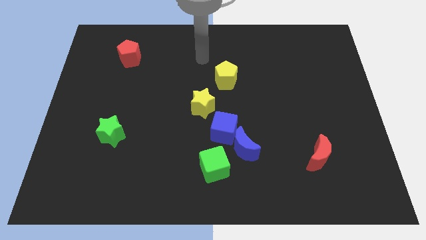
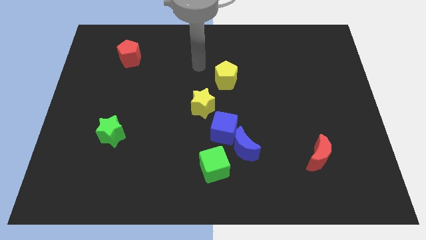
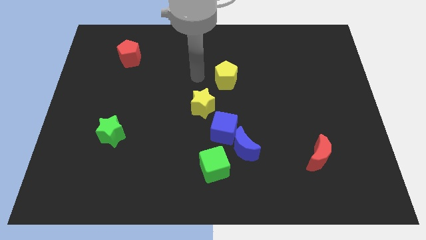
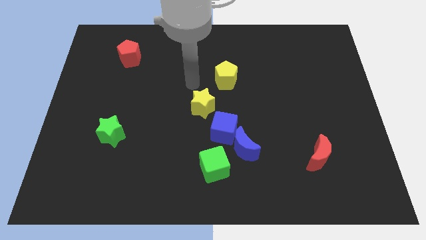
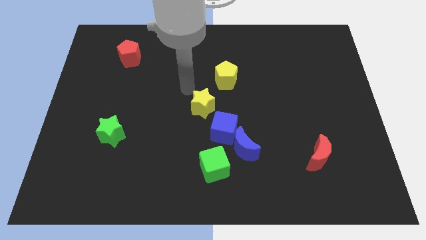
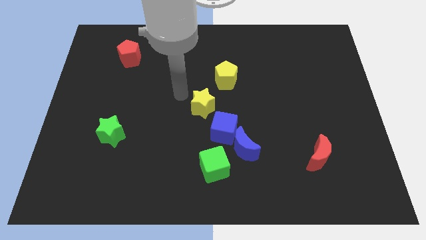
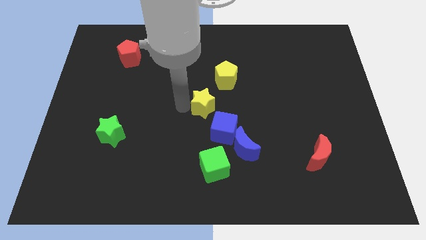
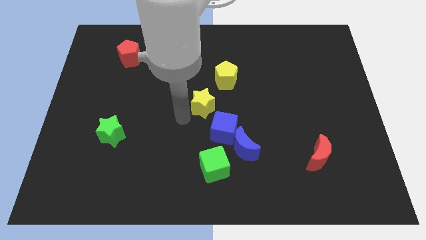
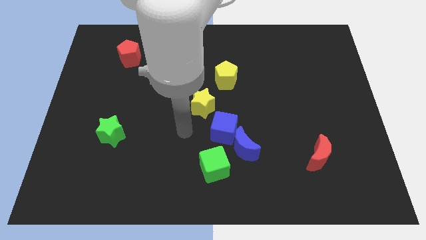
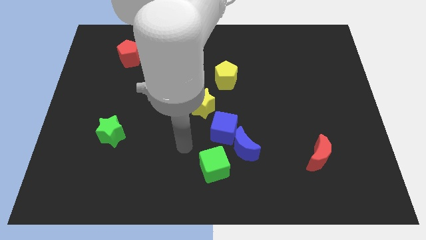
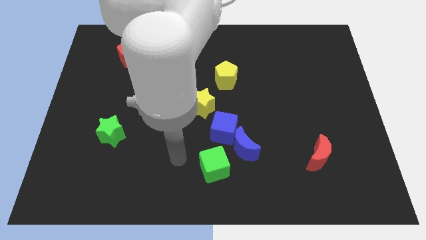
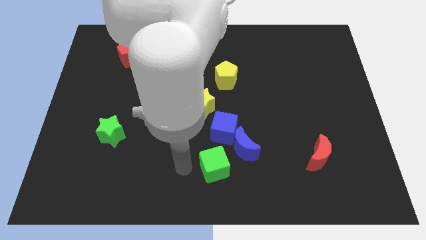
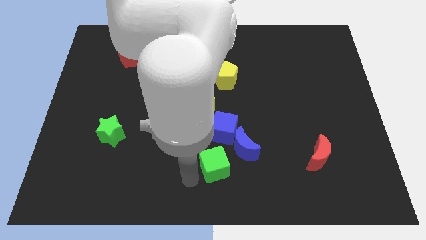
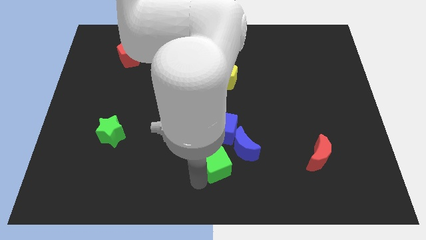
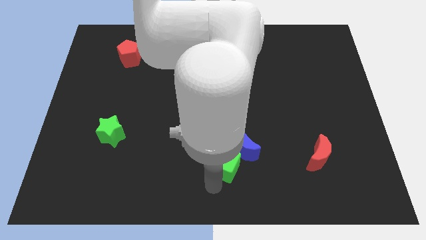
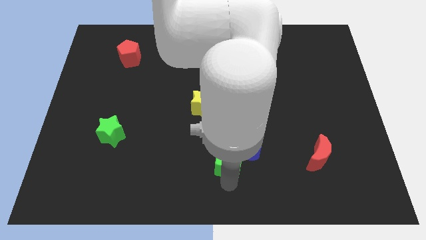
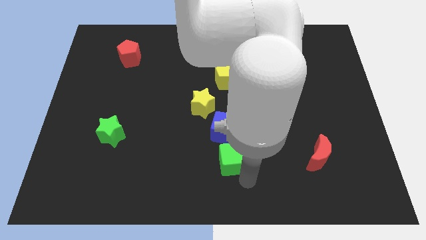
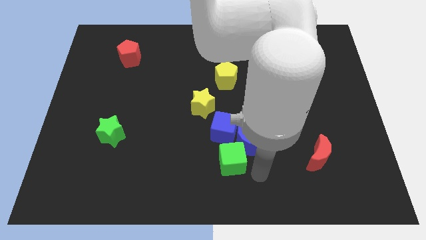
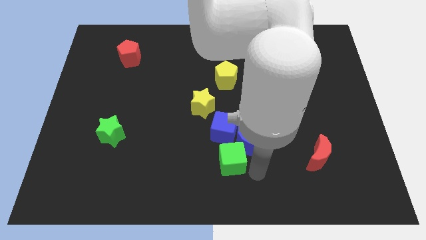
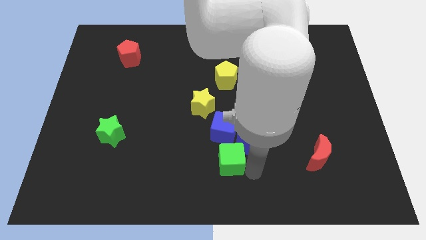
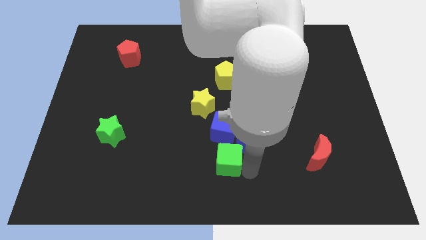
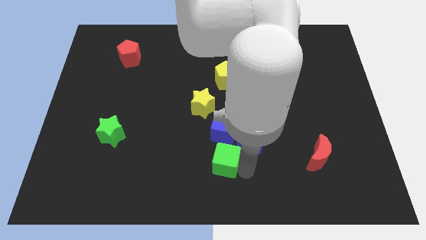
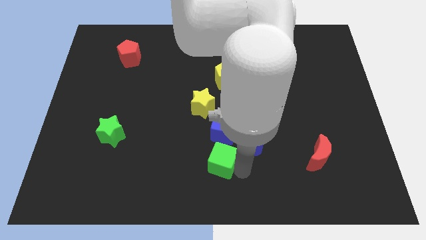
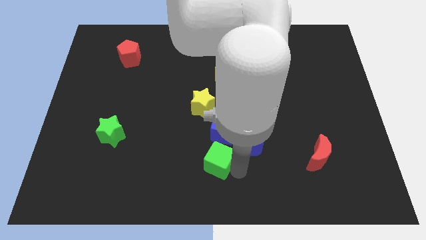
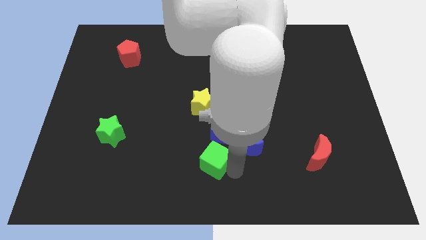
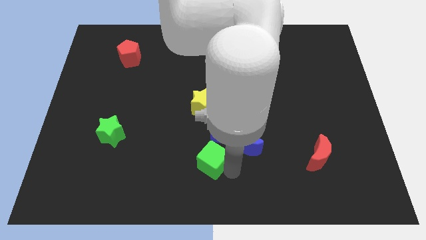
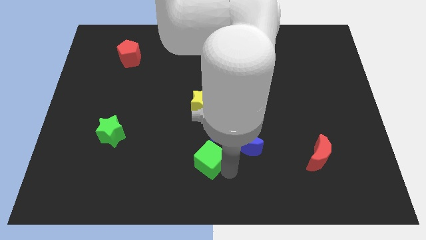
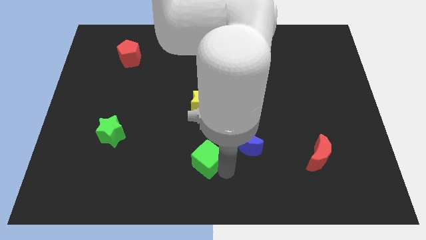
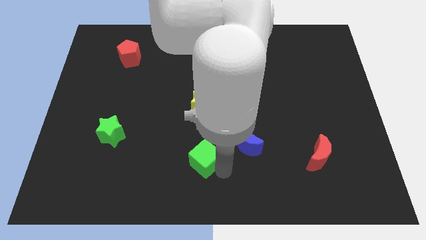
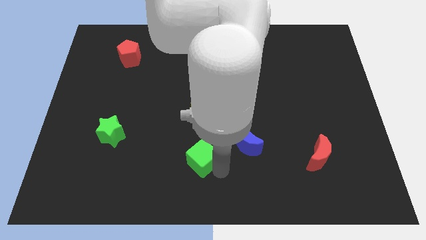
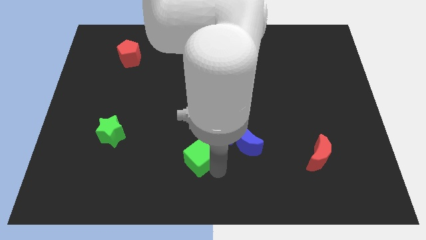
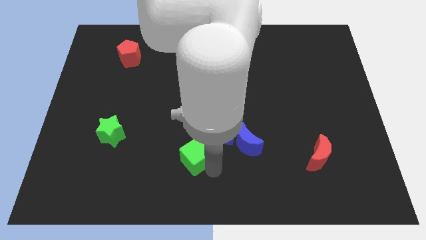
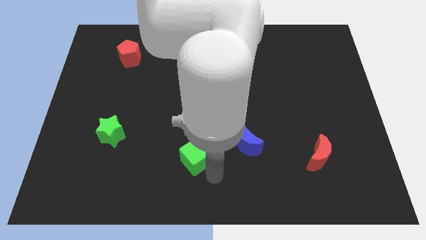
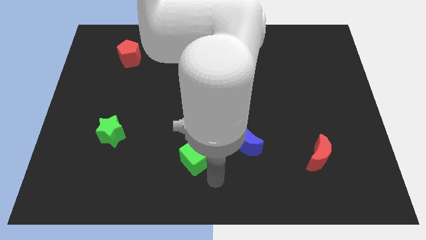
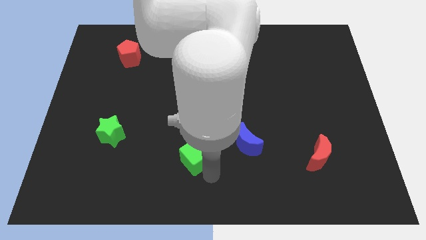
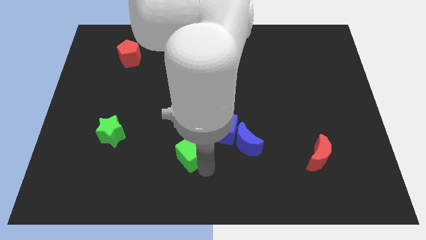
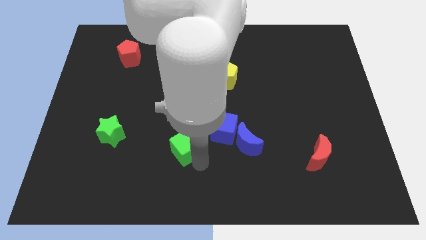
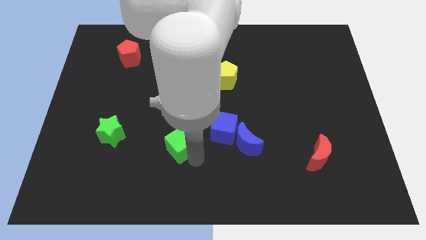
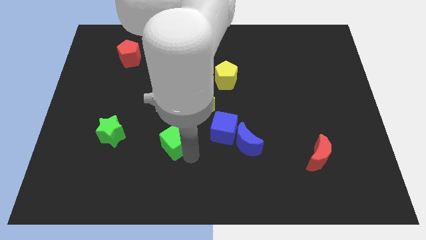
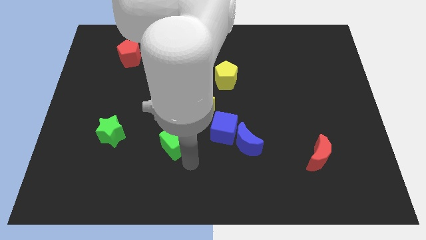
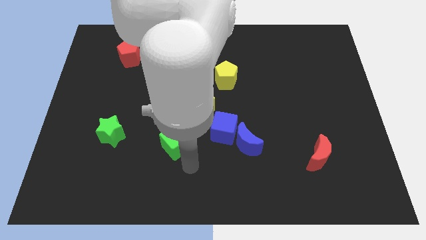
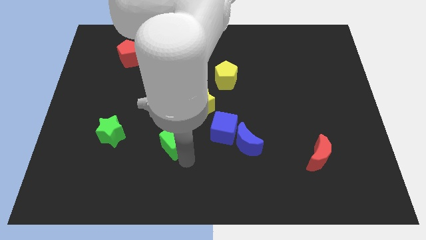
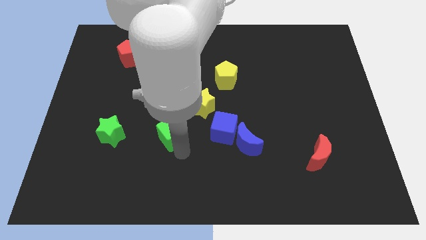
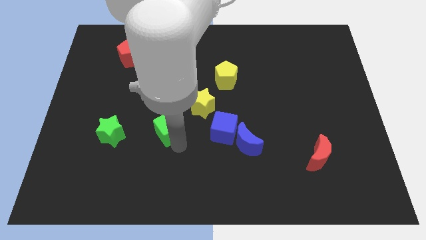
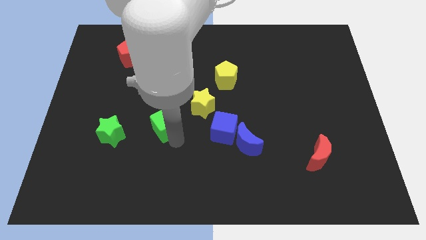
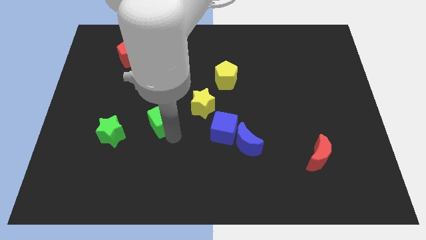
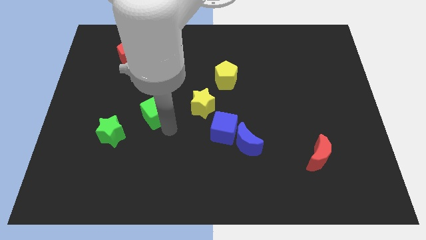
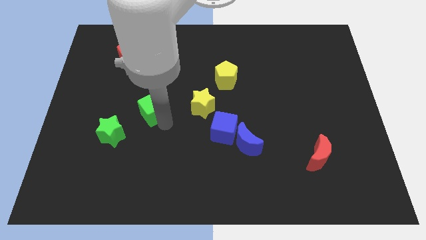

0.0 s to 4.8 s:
slide the green cube up and then to the left

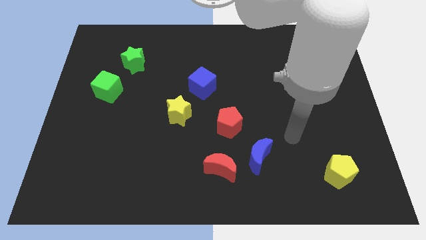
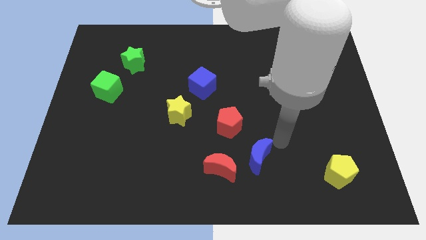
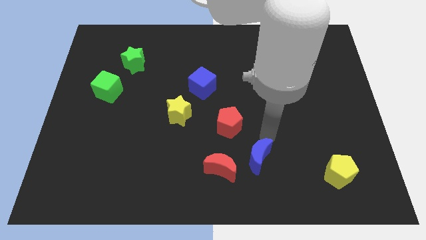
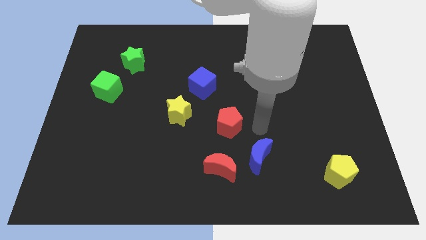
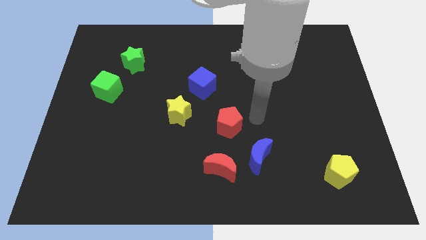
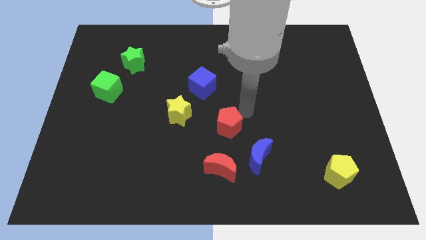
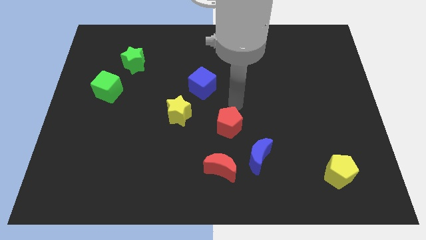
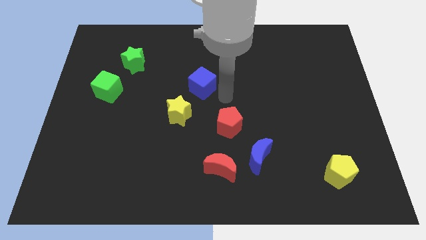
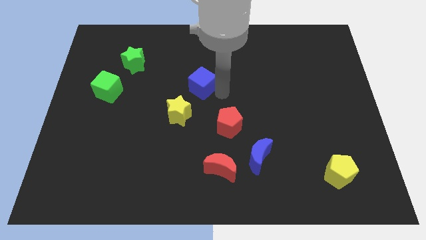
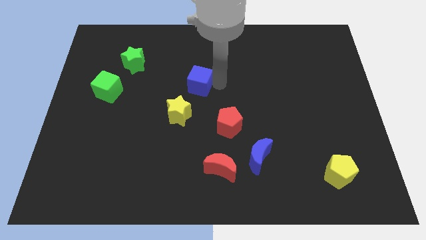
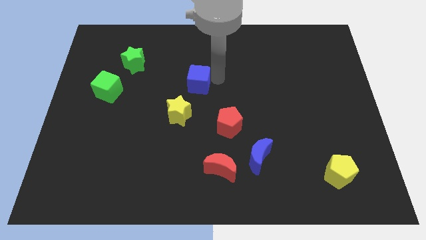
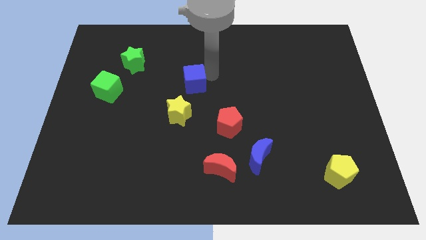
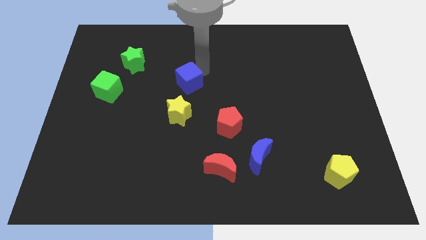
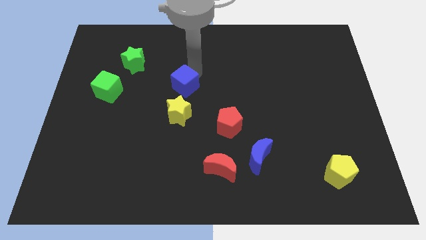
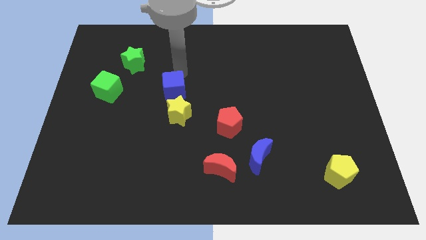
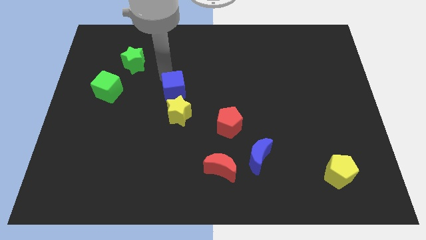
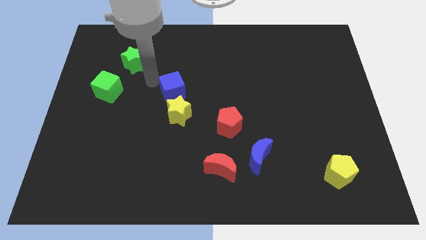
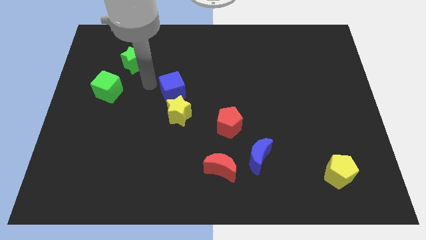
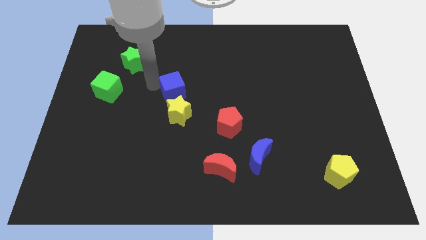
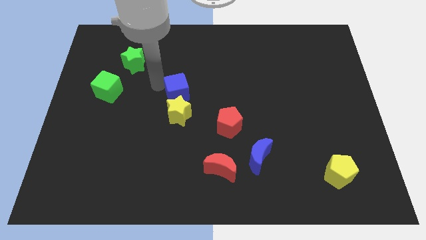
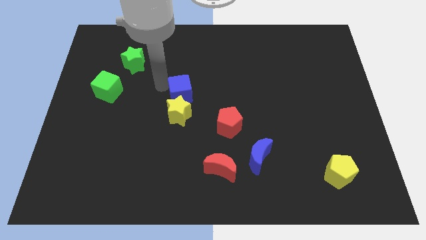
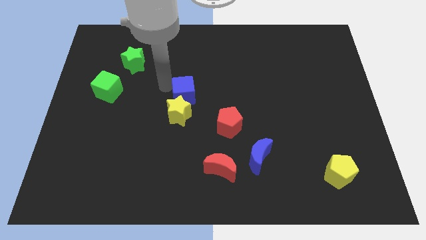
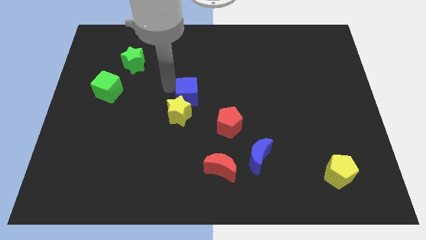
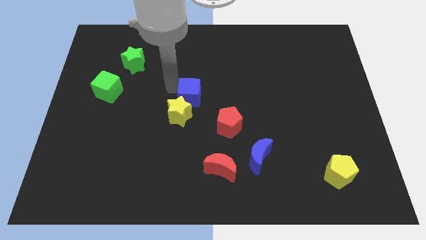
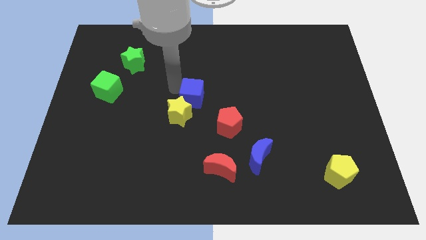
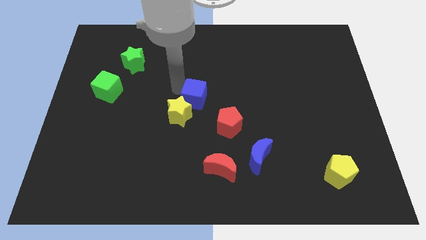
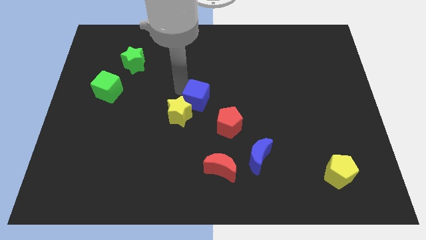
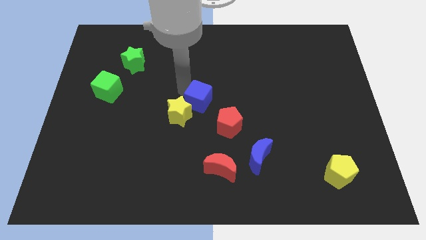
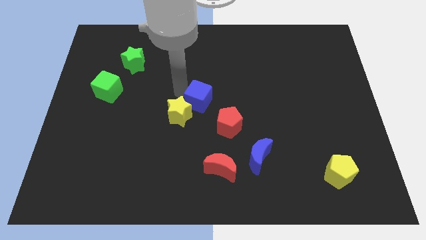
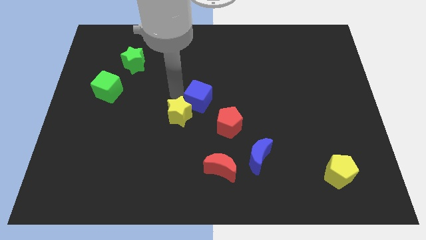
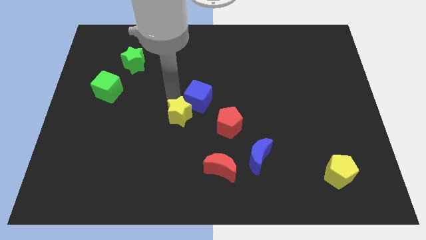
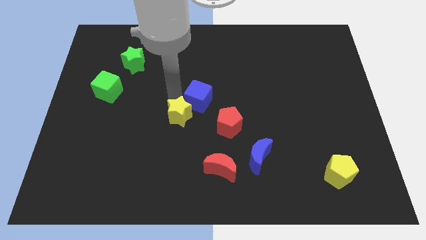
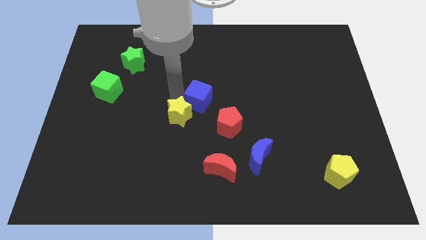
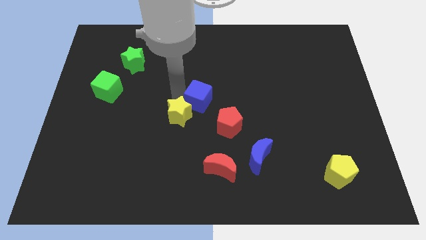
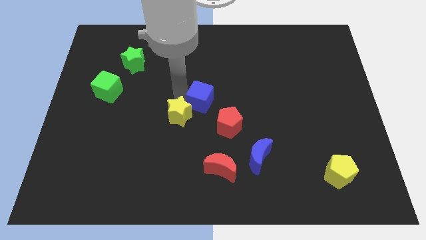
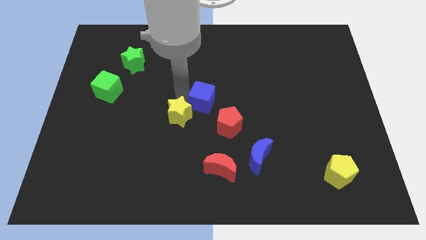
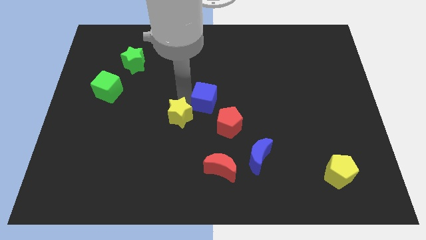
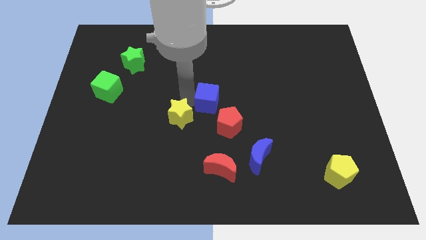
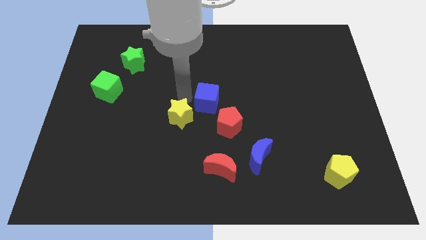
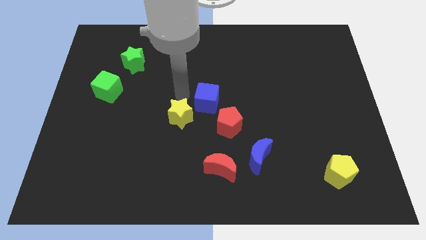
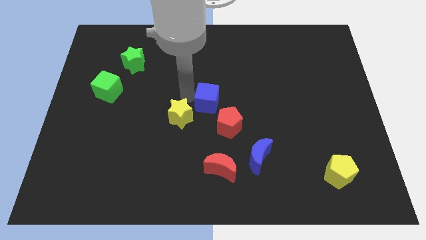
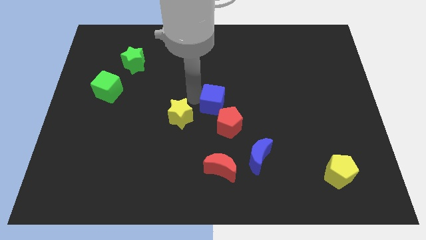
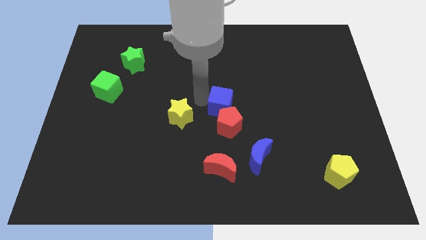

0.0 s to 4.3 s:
slightly push the blue cube downwards and right diagonally
